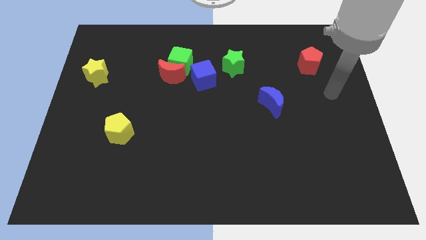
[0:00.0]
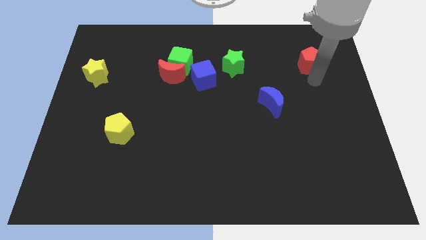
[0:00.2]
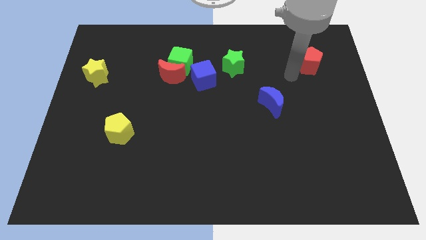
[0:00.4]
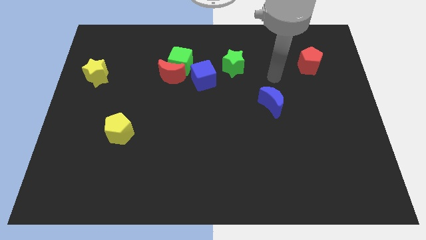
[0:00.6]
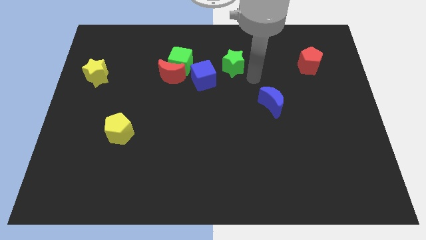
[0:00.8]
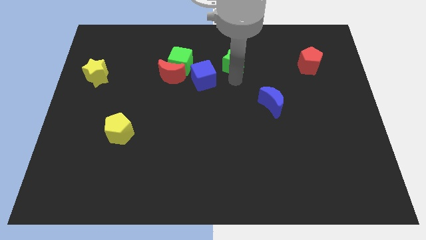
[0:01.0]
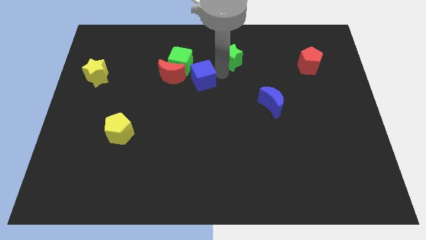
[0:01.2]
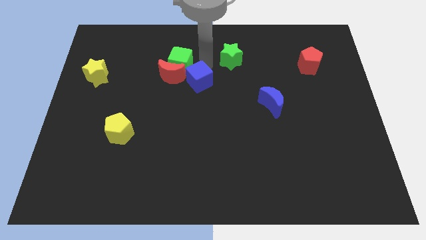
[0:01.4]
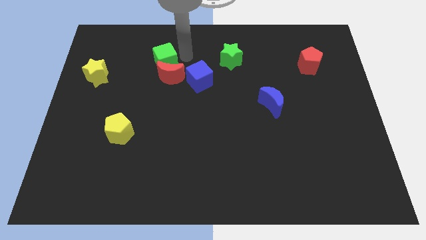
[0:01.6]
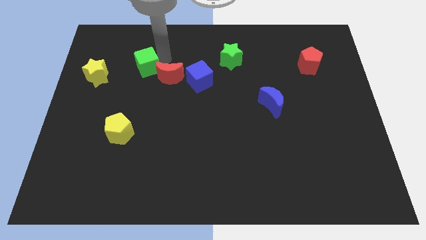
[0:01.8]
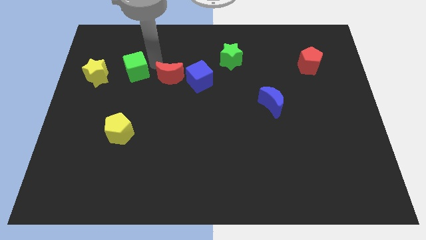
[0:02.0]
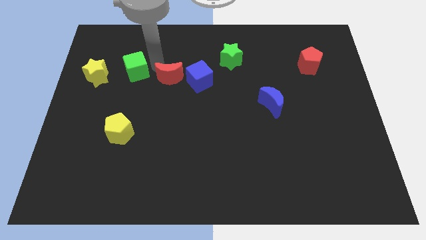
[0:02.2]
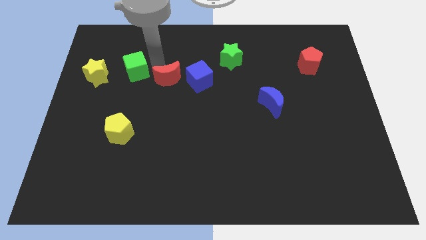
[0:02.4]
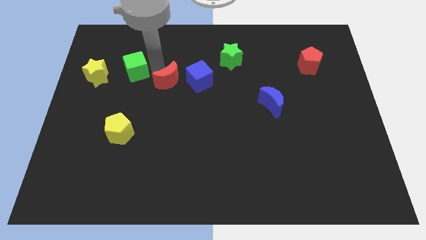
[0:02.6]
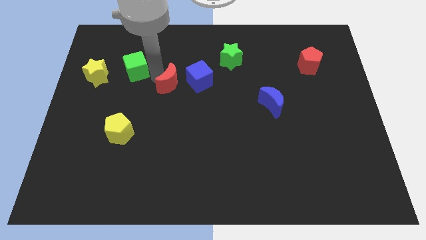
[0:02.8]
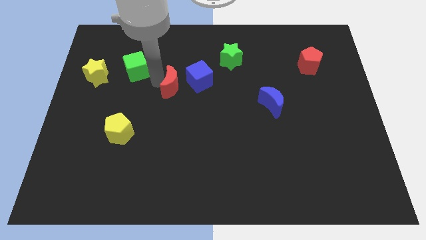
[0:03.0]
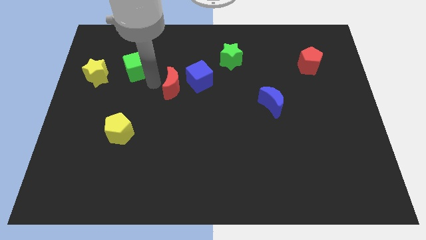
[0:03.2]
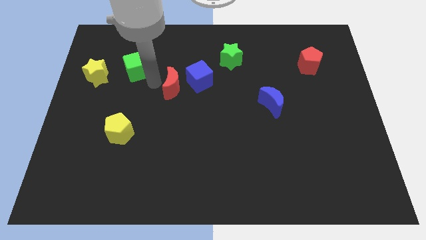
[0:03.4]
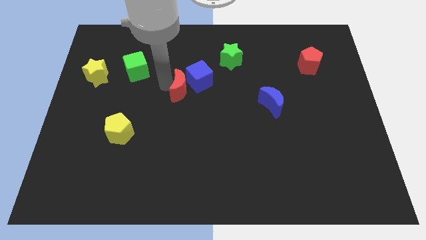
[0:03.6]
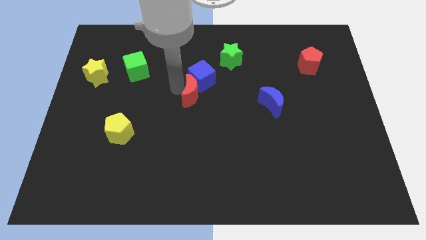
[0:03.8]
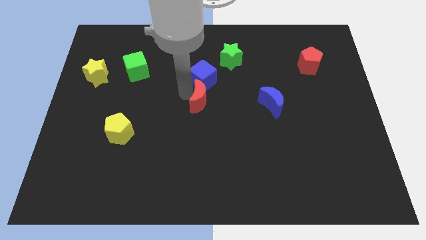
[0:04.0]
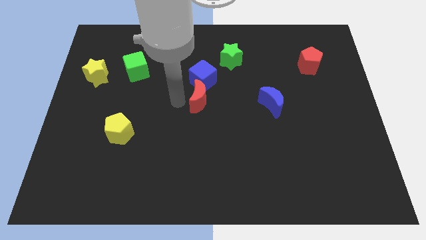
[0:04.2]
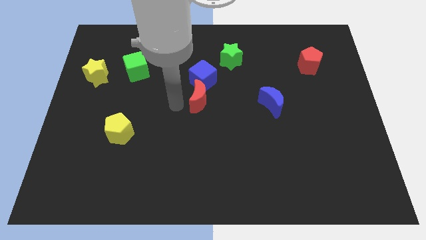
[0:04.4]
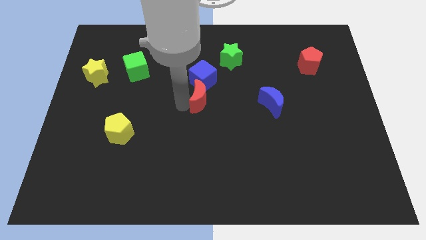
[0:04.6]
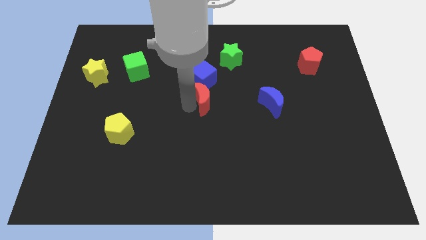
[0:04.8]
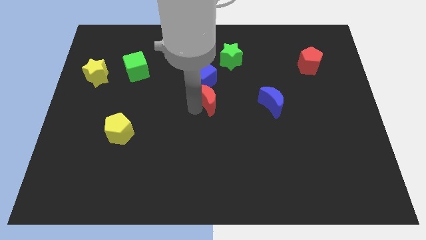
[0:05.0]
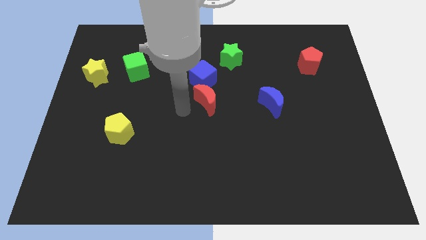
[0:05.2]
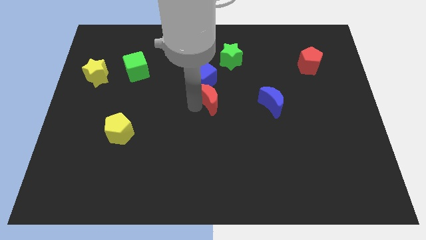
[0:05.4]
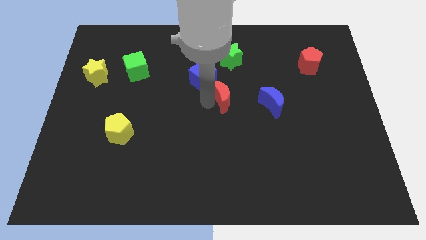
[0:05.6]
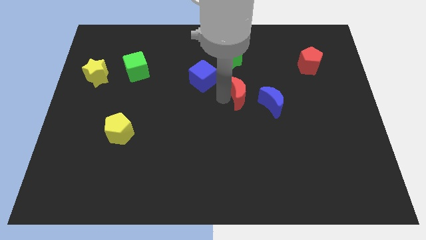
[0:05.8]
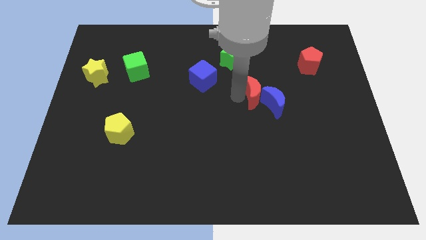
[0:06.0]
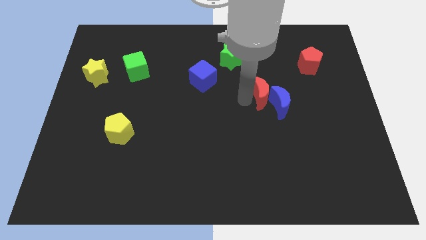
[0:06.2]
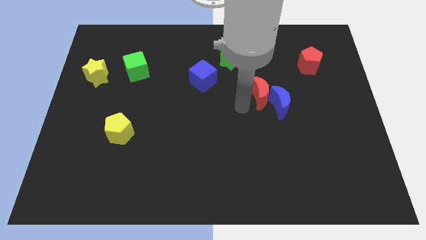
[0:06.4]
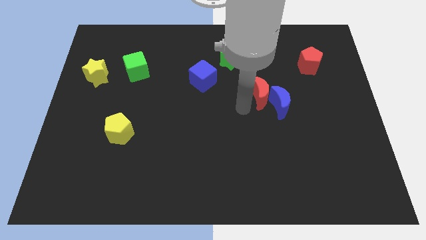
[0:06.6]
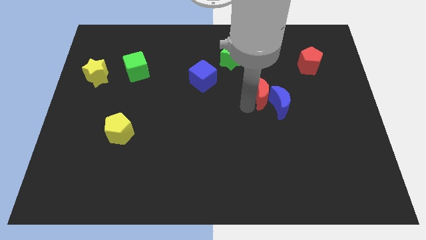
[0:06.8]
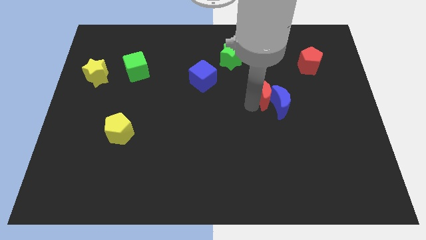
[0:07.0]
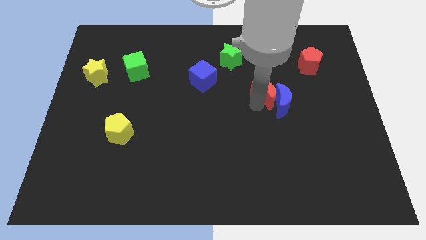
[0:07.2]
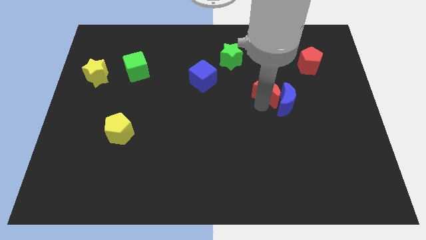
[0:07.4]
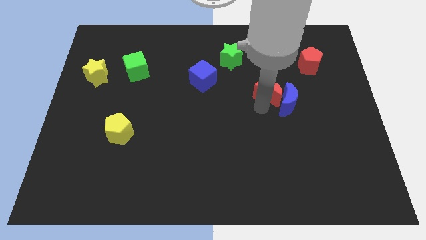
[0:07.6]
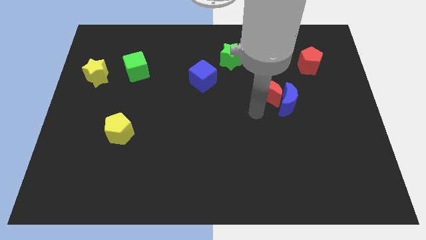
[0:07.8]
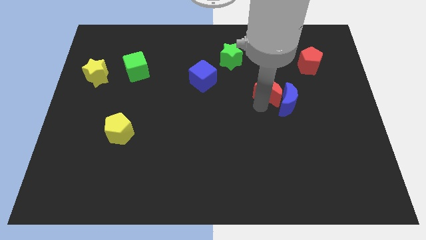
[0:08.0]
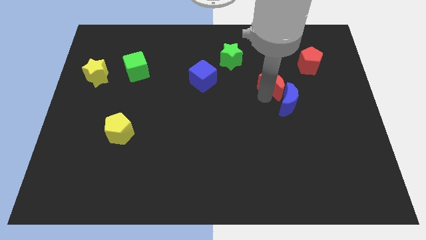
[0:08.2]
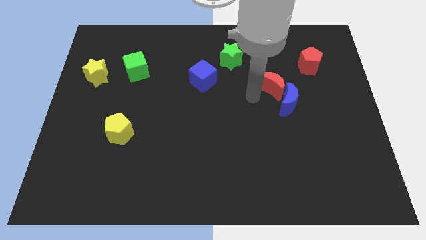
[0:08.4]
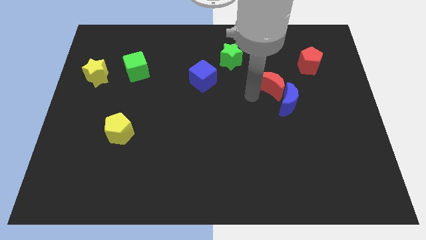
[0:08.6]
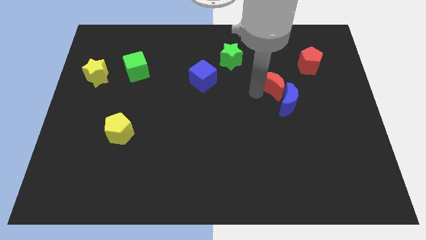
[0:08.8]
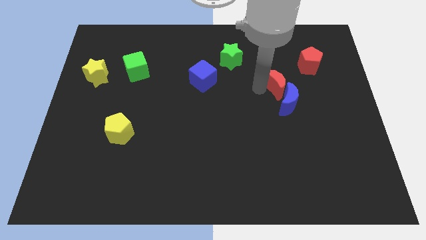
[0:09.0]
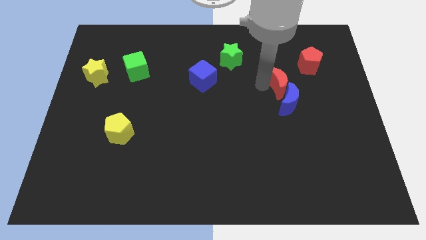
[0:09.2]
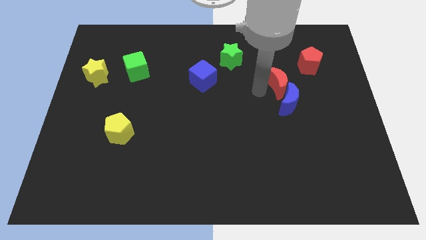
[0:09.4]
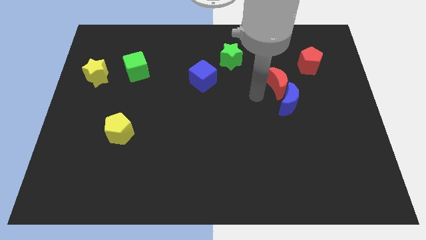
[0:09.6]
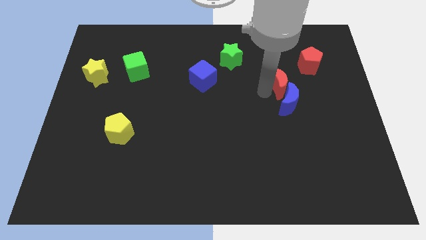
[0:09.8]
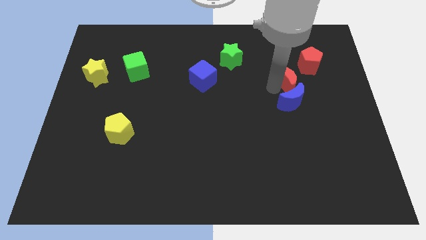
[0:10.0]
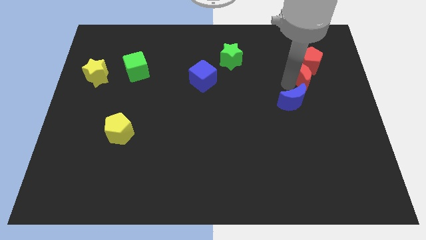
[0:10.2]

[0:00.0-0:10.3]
slide the red moon to the red pentagon

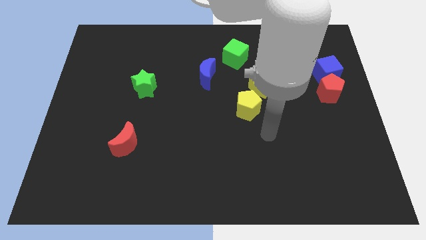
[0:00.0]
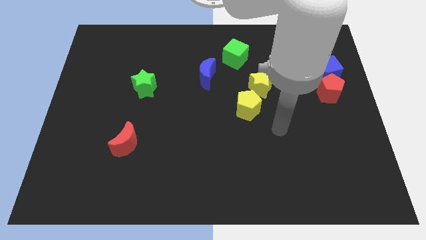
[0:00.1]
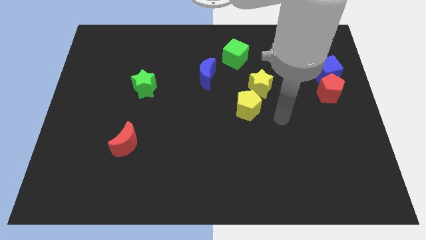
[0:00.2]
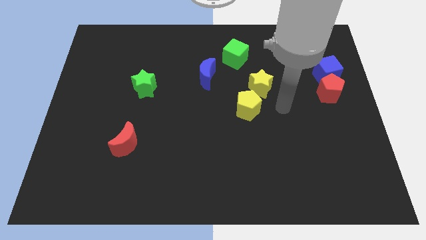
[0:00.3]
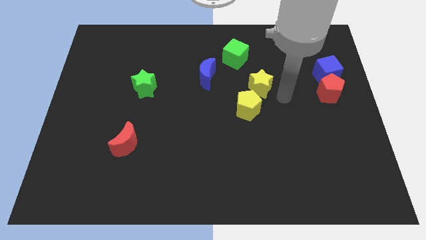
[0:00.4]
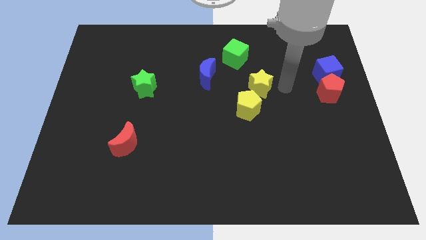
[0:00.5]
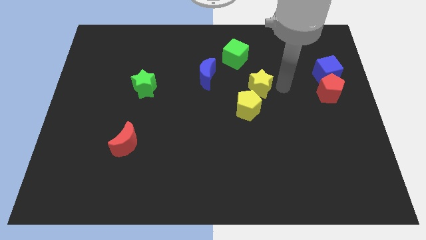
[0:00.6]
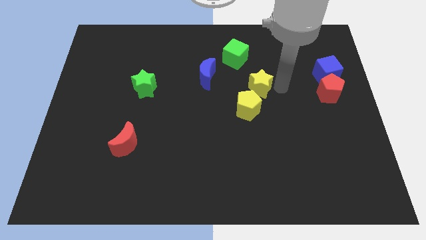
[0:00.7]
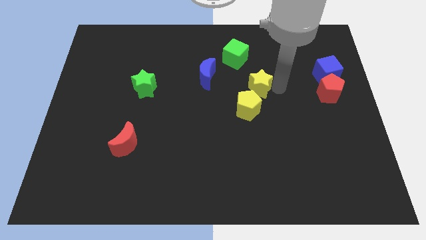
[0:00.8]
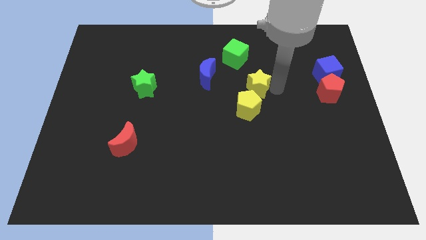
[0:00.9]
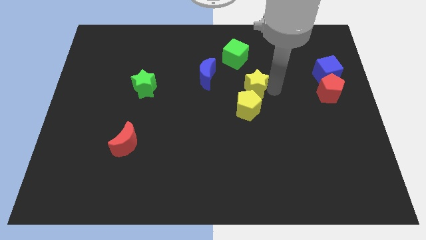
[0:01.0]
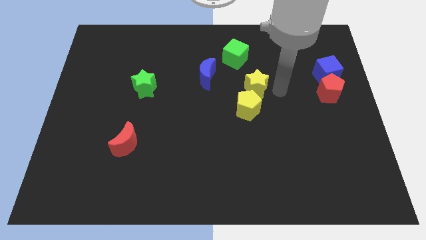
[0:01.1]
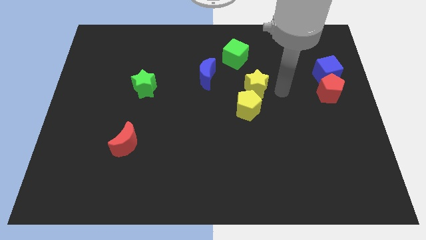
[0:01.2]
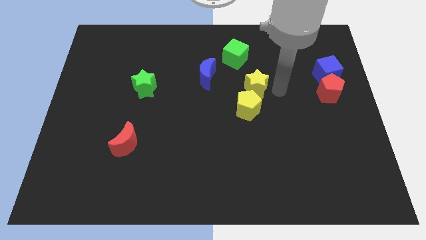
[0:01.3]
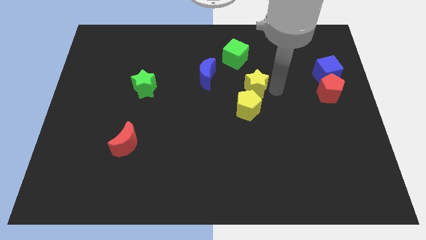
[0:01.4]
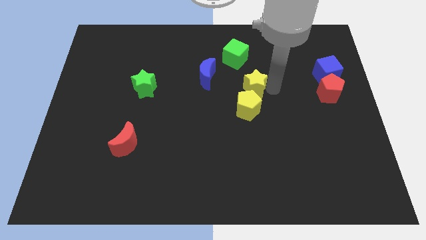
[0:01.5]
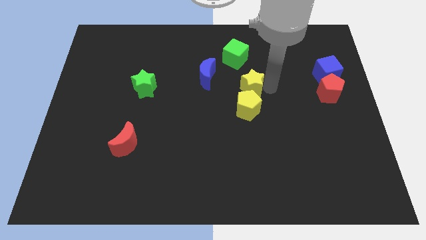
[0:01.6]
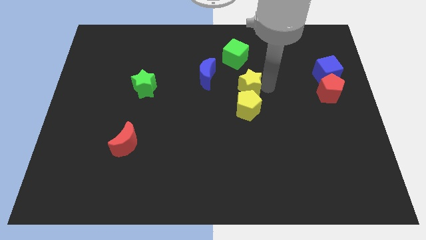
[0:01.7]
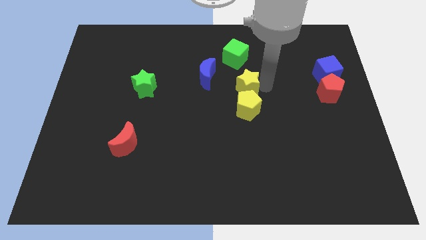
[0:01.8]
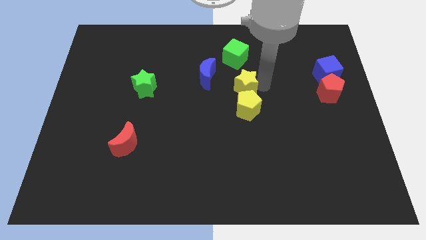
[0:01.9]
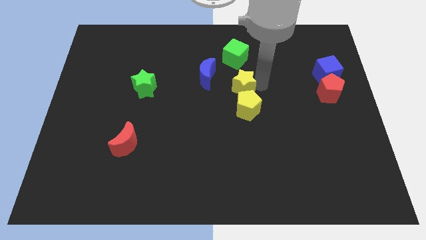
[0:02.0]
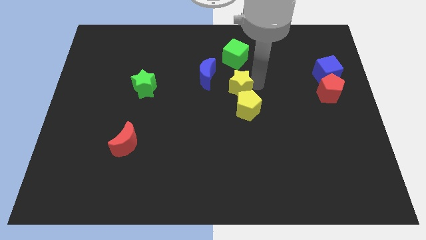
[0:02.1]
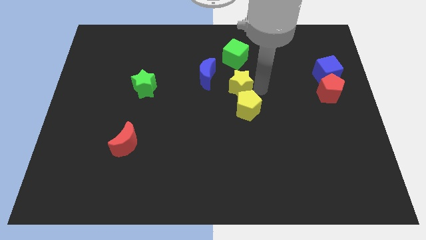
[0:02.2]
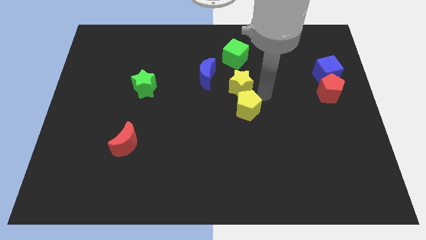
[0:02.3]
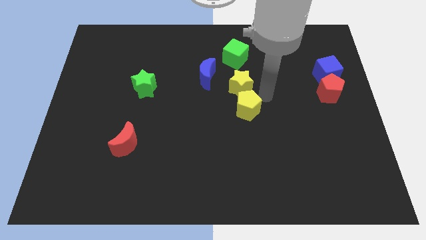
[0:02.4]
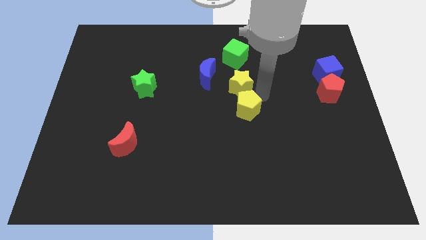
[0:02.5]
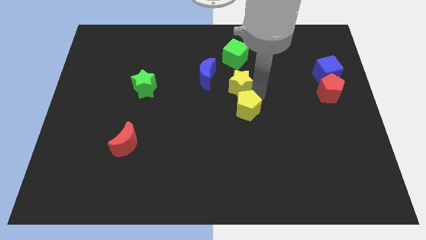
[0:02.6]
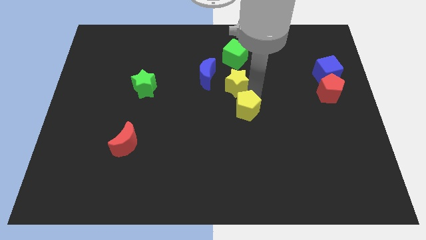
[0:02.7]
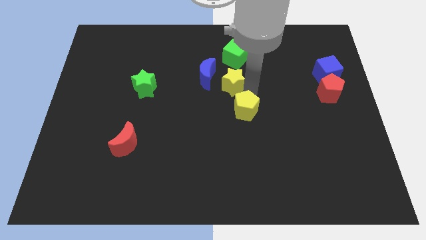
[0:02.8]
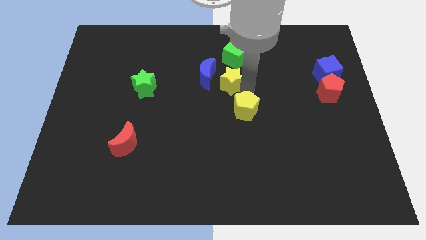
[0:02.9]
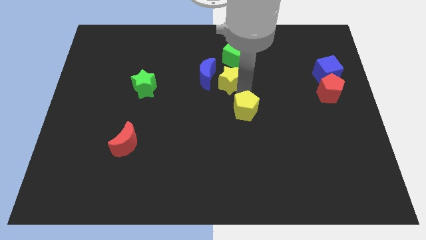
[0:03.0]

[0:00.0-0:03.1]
move the yellow star towards the blue moon
